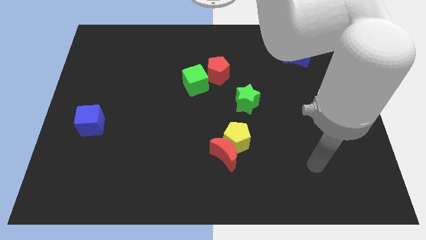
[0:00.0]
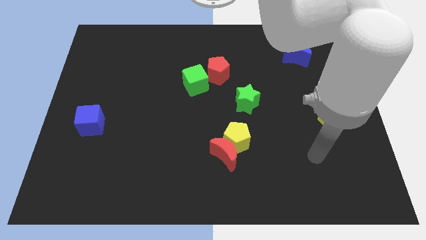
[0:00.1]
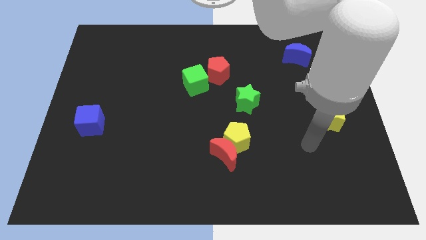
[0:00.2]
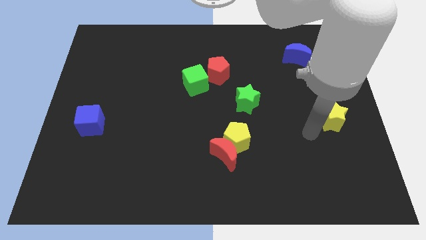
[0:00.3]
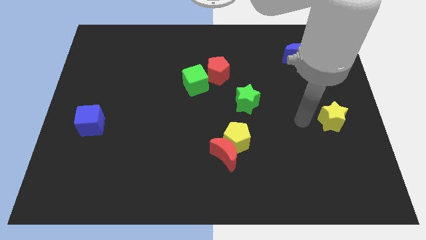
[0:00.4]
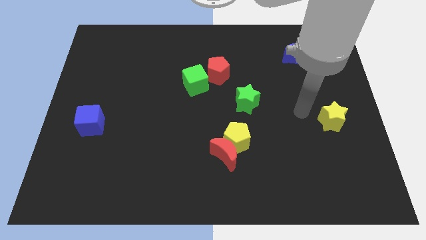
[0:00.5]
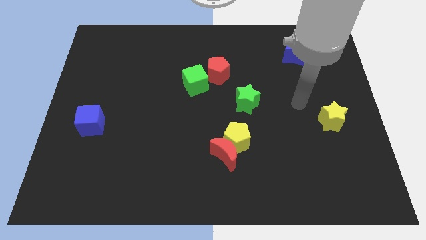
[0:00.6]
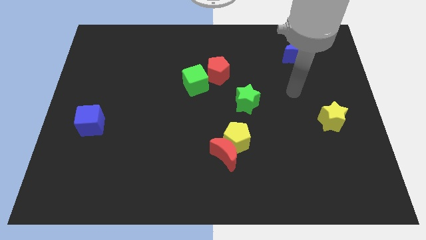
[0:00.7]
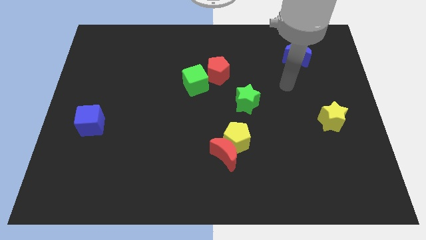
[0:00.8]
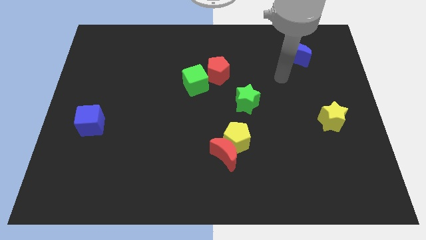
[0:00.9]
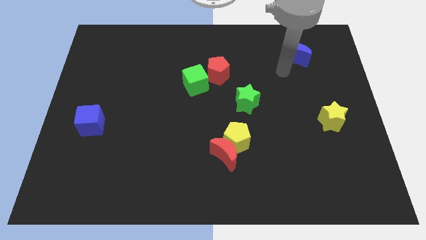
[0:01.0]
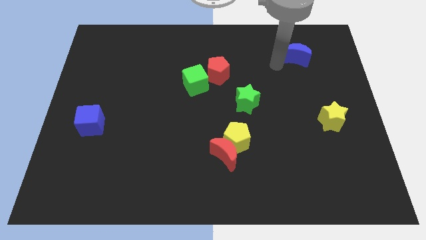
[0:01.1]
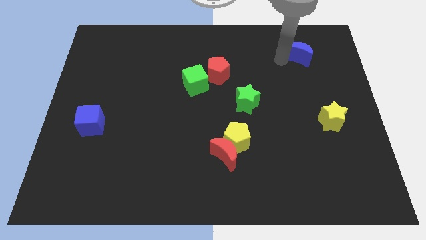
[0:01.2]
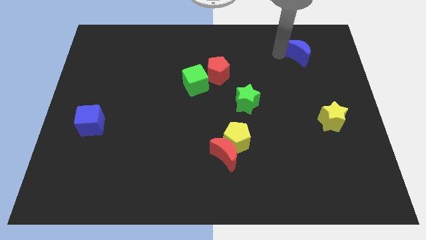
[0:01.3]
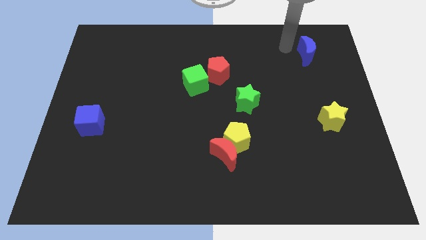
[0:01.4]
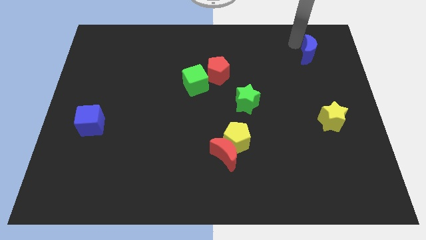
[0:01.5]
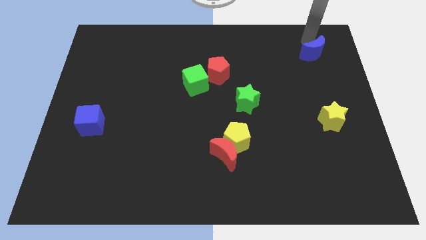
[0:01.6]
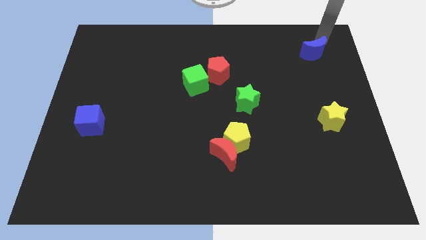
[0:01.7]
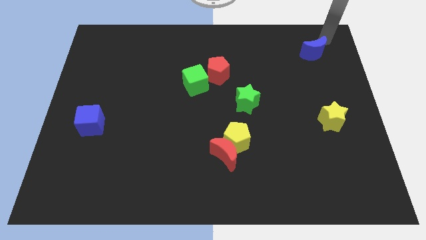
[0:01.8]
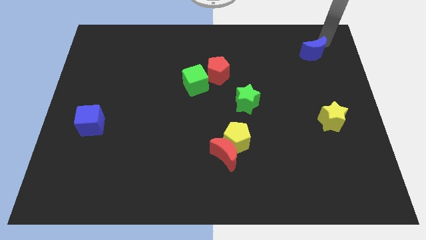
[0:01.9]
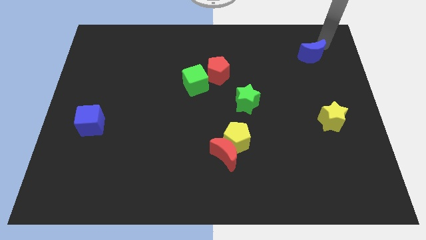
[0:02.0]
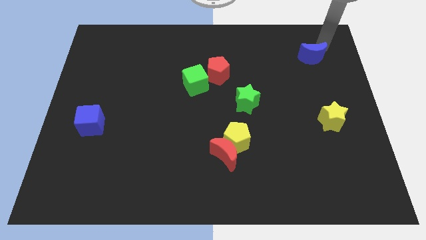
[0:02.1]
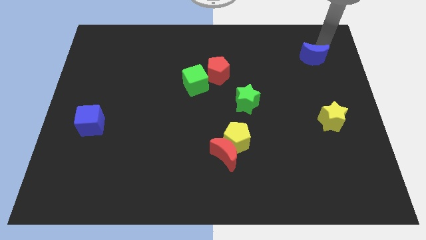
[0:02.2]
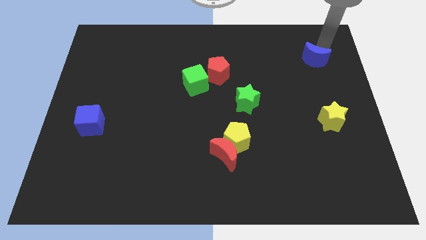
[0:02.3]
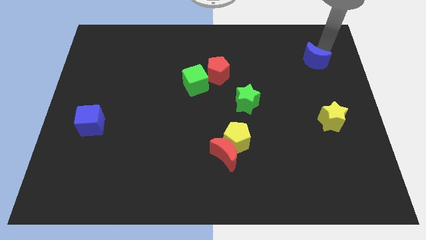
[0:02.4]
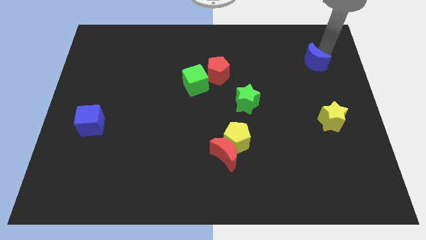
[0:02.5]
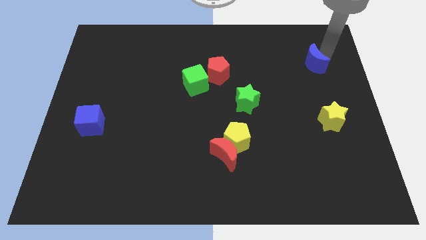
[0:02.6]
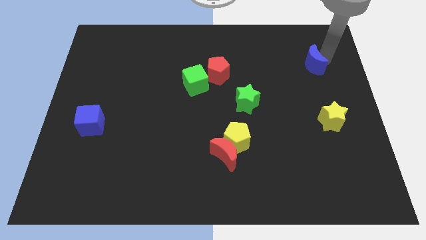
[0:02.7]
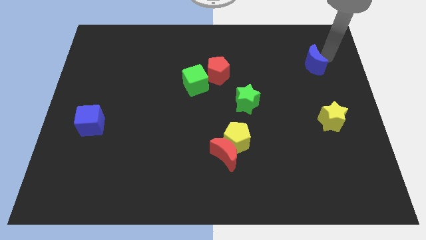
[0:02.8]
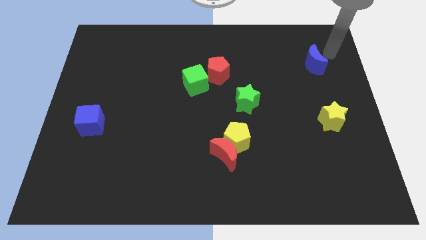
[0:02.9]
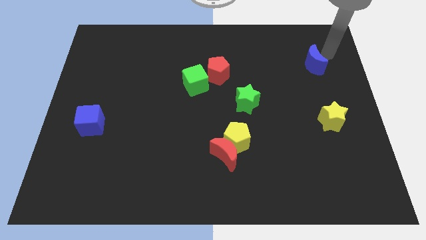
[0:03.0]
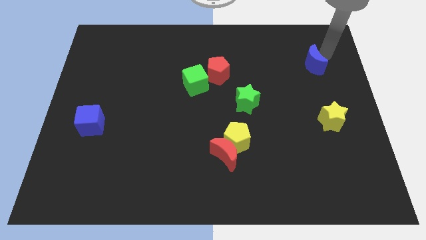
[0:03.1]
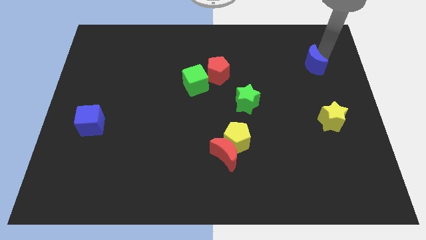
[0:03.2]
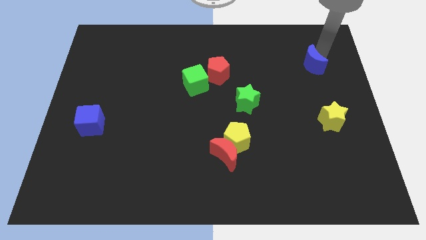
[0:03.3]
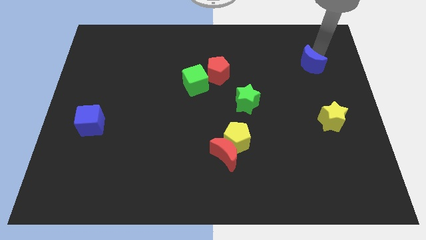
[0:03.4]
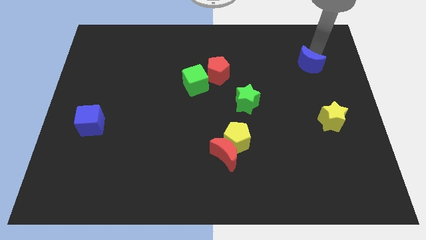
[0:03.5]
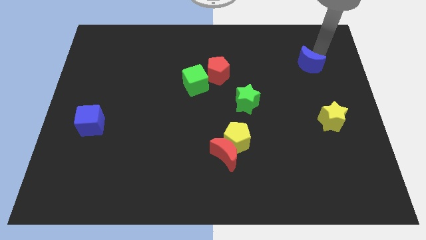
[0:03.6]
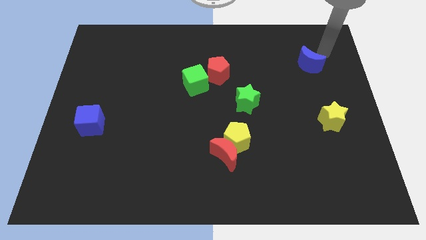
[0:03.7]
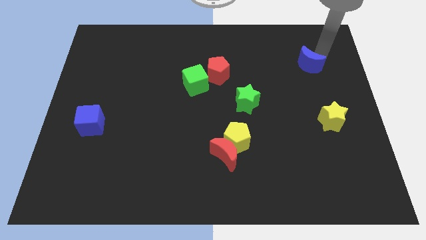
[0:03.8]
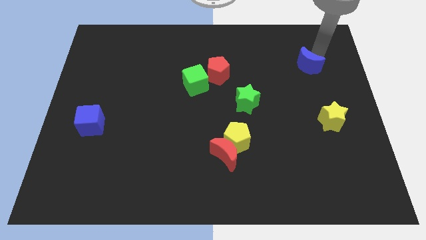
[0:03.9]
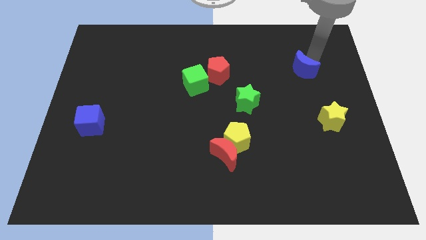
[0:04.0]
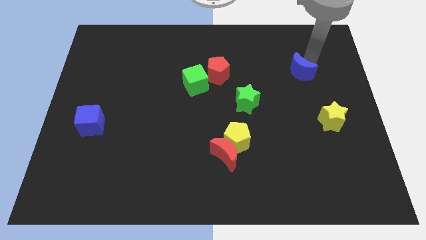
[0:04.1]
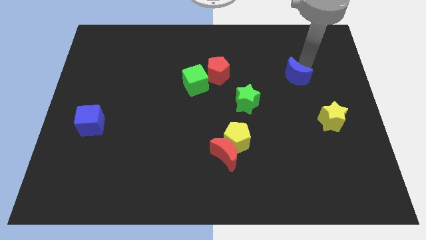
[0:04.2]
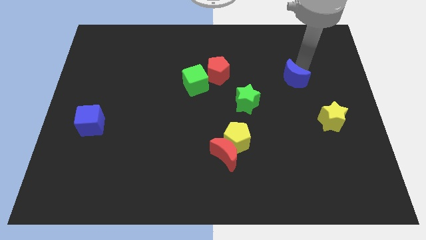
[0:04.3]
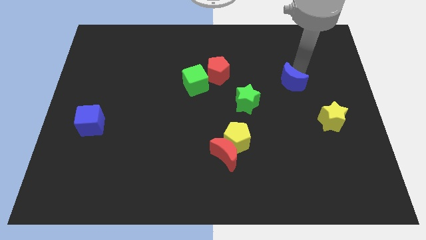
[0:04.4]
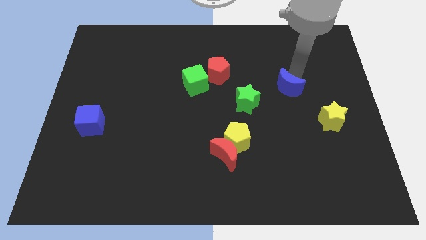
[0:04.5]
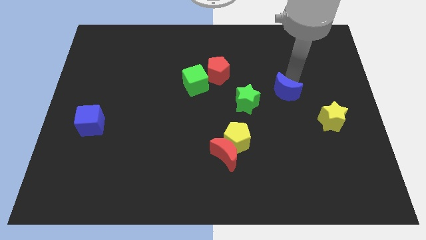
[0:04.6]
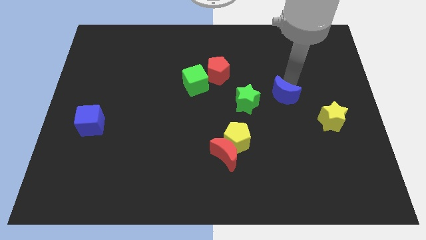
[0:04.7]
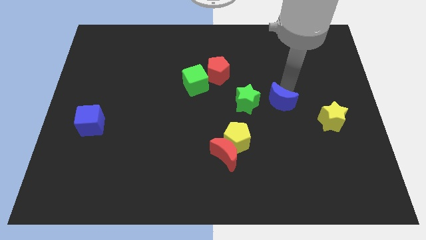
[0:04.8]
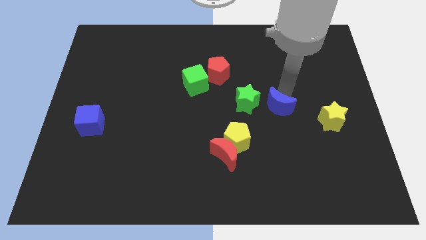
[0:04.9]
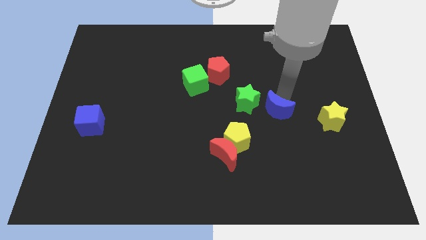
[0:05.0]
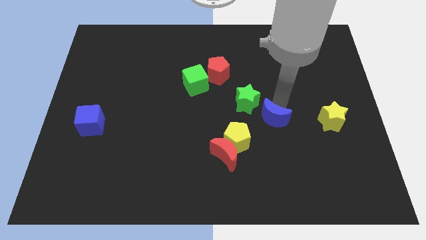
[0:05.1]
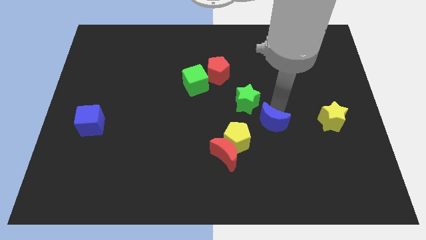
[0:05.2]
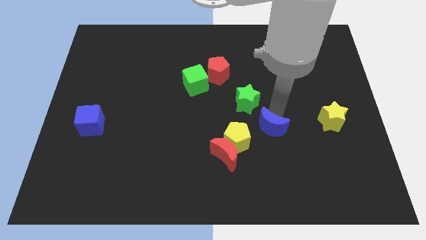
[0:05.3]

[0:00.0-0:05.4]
move the blue moon to the bottom side of the green star

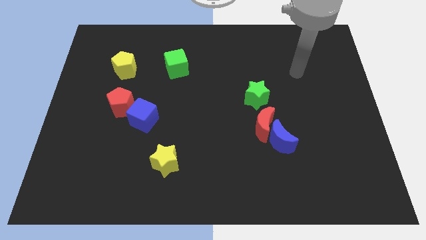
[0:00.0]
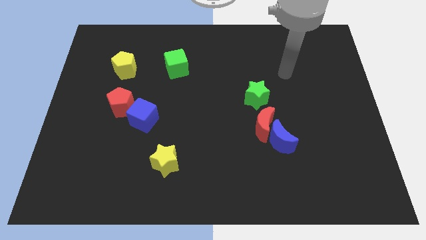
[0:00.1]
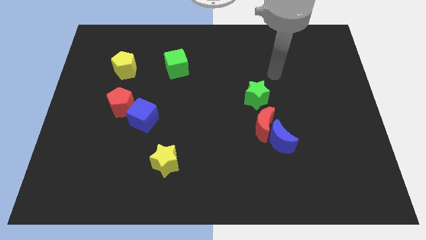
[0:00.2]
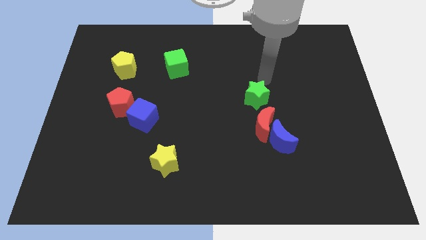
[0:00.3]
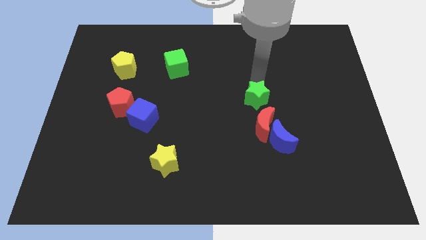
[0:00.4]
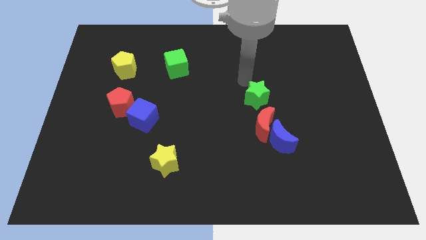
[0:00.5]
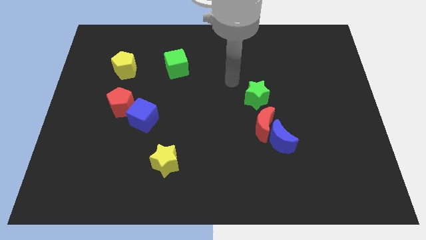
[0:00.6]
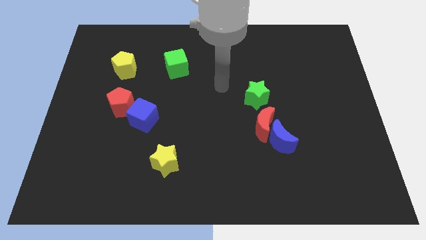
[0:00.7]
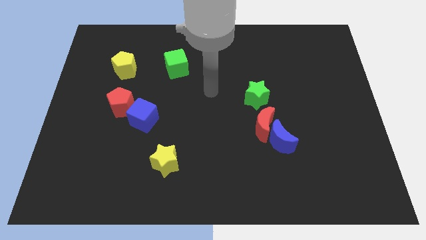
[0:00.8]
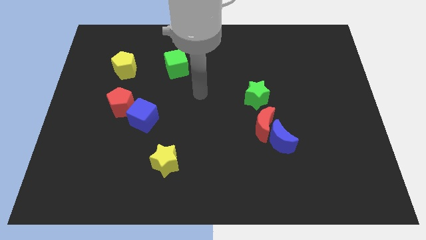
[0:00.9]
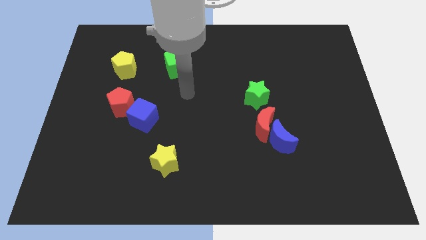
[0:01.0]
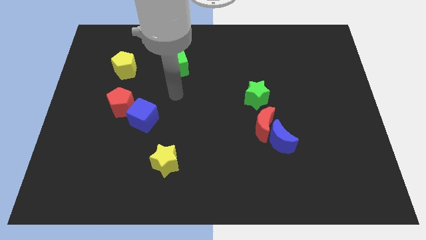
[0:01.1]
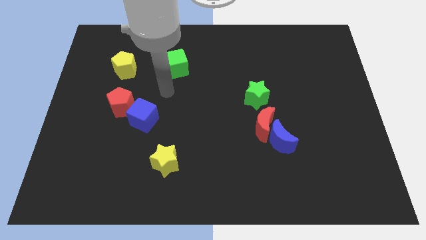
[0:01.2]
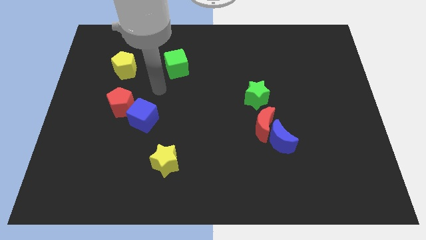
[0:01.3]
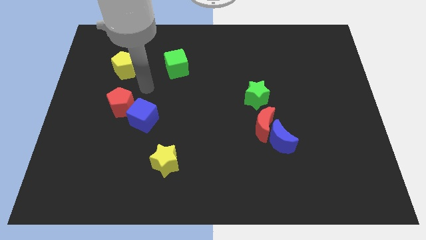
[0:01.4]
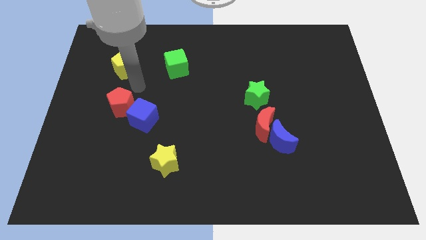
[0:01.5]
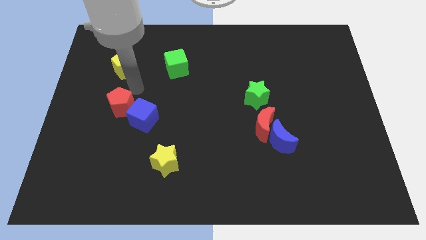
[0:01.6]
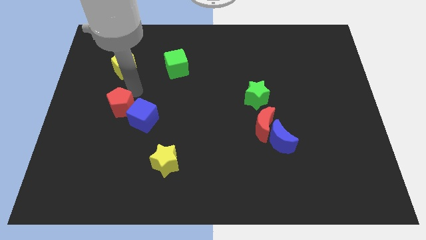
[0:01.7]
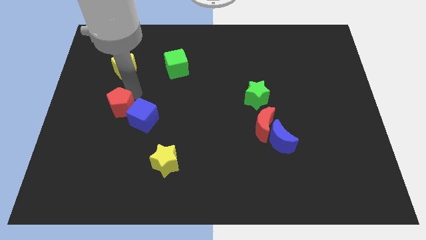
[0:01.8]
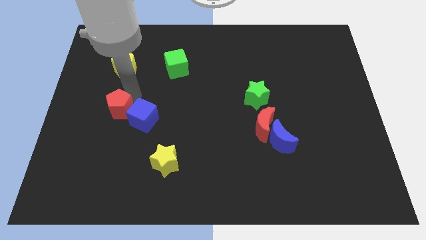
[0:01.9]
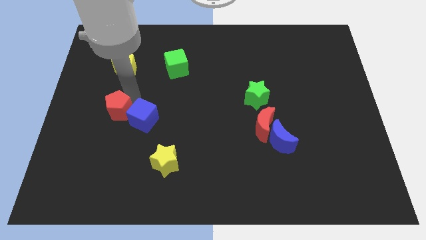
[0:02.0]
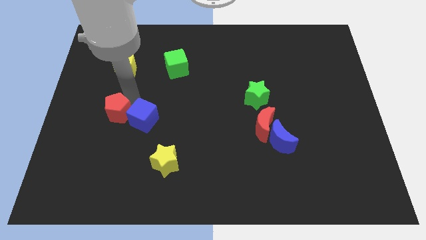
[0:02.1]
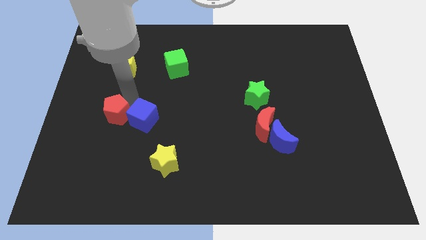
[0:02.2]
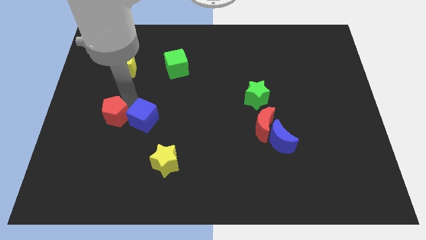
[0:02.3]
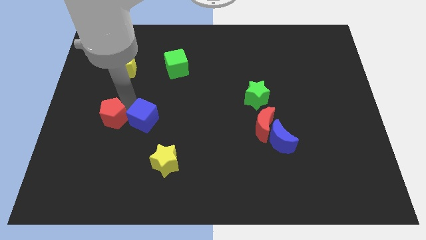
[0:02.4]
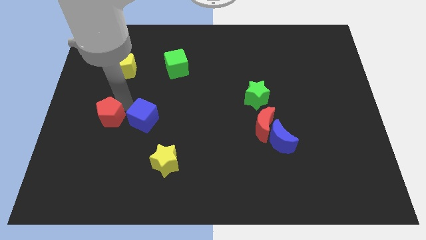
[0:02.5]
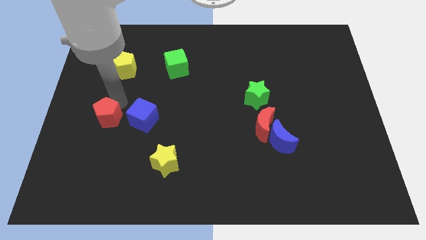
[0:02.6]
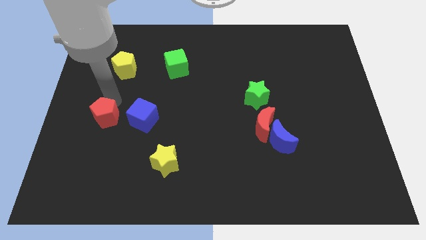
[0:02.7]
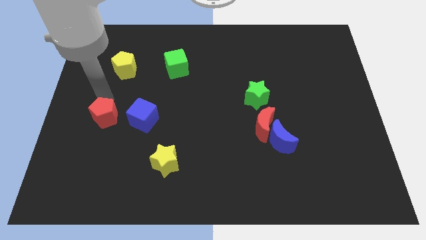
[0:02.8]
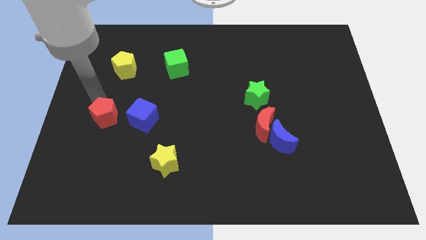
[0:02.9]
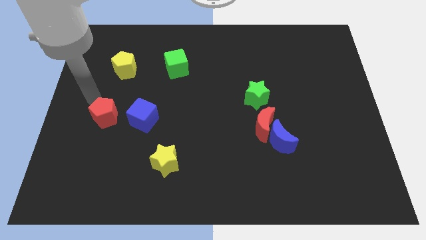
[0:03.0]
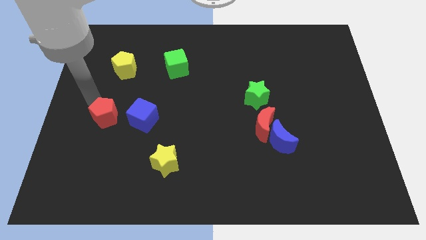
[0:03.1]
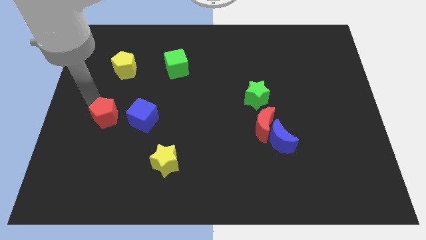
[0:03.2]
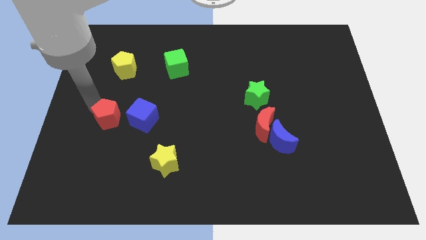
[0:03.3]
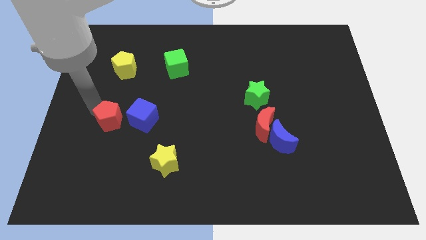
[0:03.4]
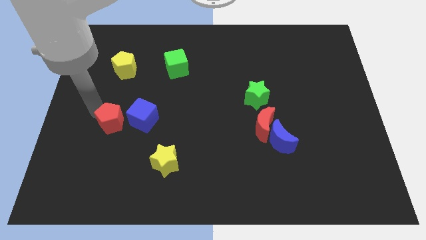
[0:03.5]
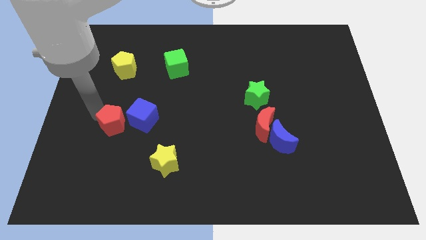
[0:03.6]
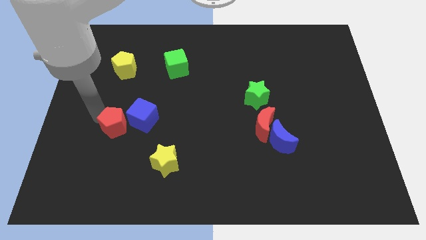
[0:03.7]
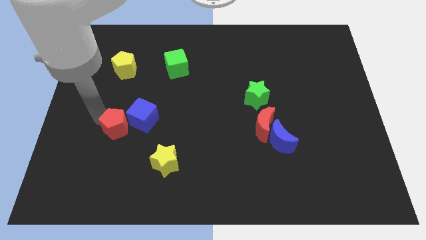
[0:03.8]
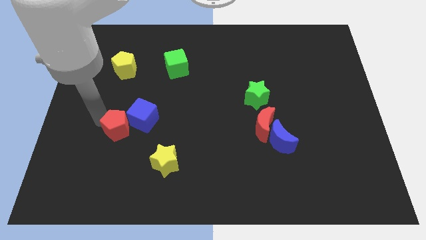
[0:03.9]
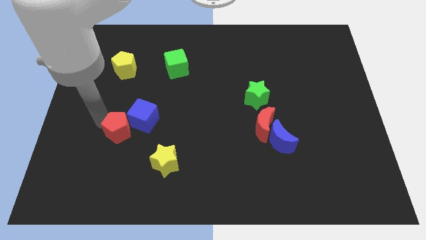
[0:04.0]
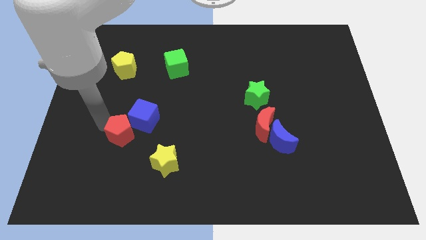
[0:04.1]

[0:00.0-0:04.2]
move the red pentagon below the blue cube
